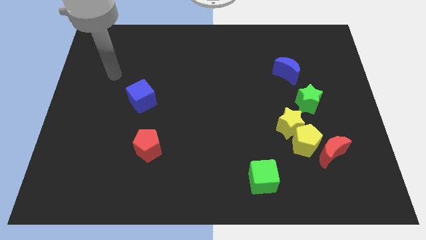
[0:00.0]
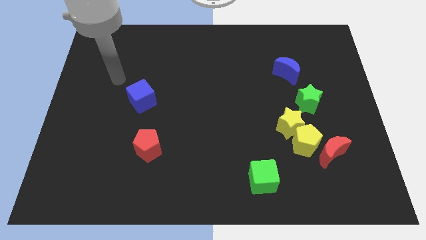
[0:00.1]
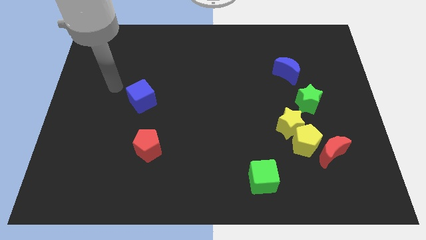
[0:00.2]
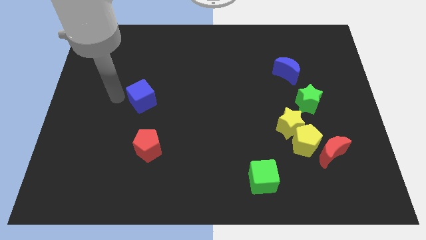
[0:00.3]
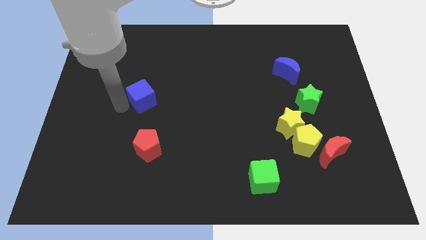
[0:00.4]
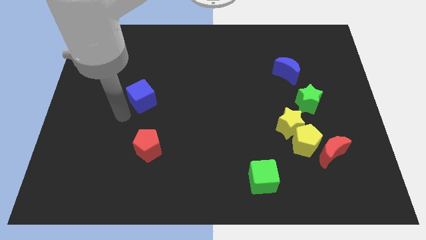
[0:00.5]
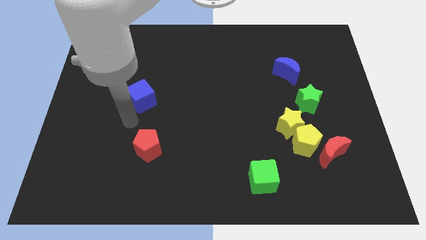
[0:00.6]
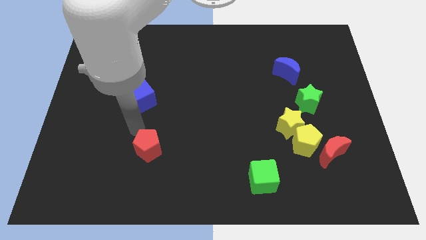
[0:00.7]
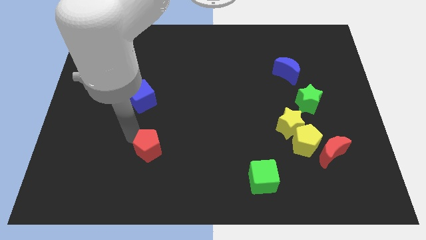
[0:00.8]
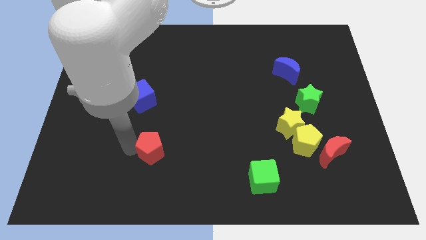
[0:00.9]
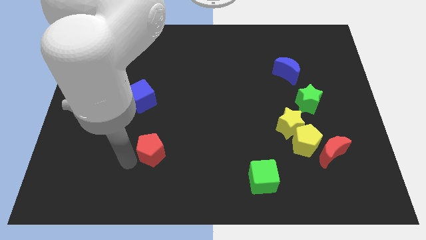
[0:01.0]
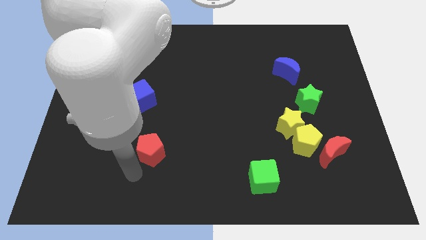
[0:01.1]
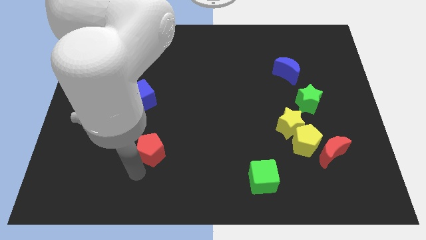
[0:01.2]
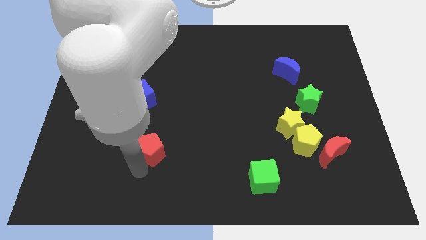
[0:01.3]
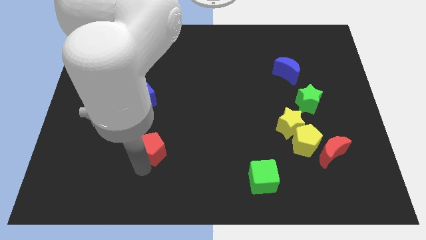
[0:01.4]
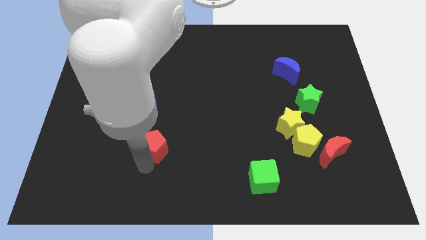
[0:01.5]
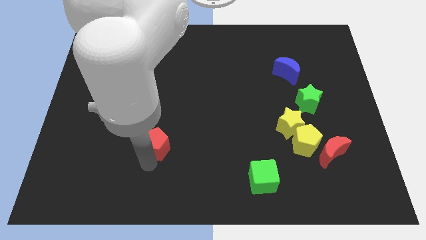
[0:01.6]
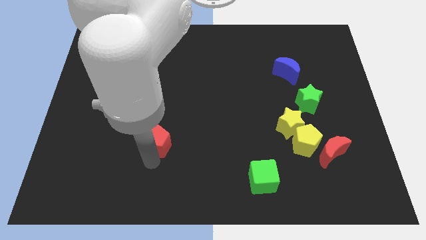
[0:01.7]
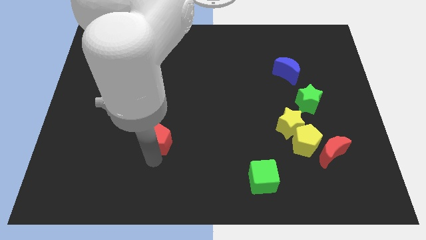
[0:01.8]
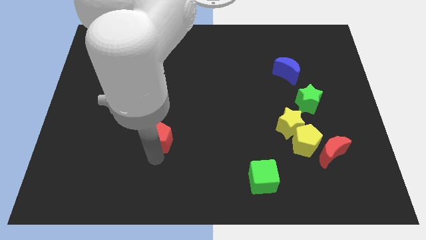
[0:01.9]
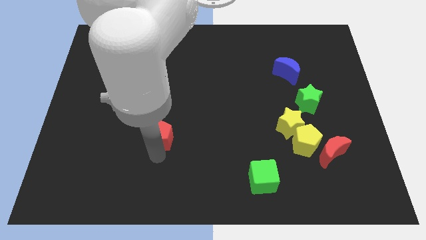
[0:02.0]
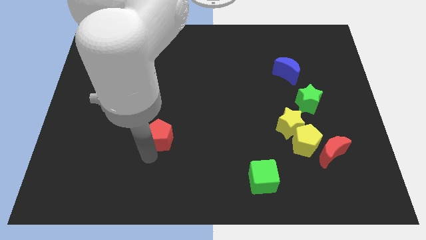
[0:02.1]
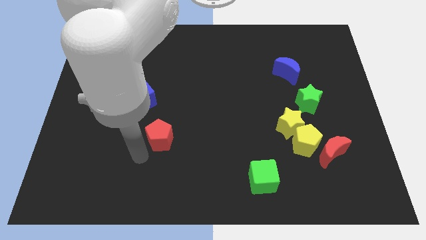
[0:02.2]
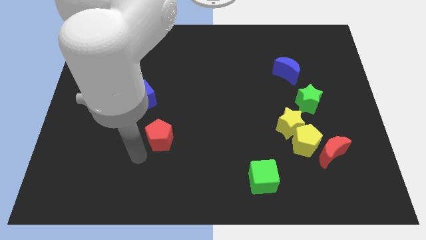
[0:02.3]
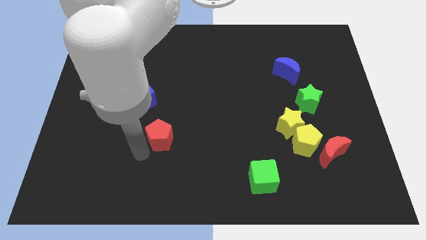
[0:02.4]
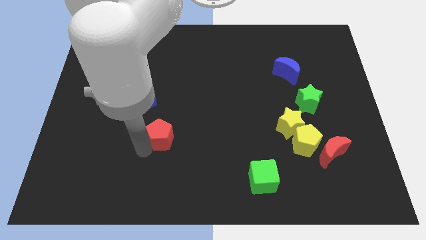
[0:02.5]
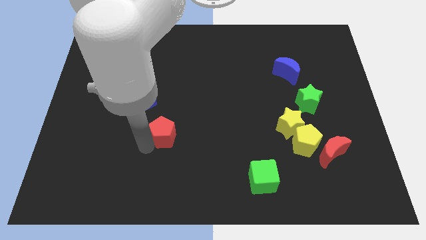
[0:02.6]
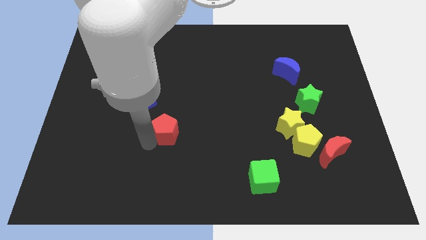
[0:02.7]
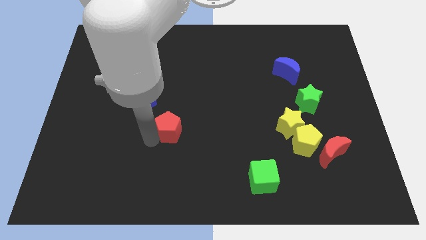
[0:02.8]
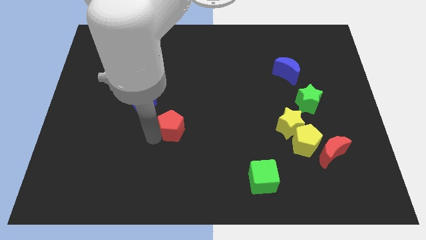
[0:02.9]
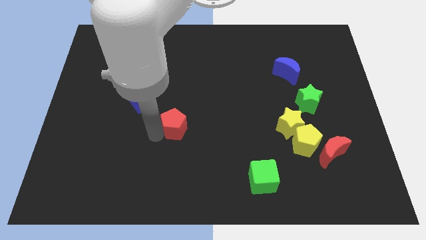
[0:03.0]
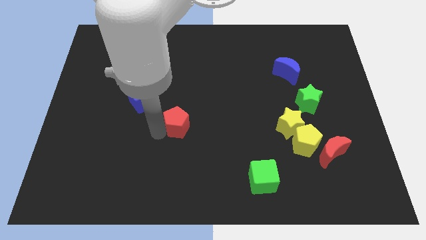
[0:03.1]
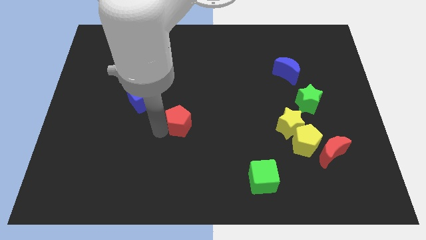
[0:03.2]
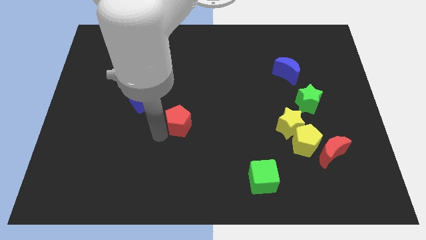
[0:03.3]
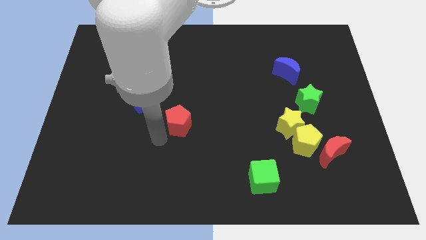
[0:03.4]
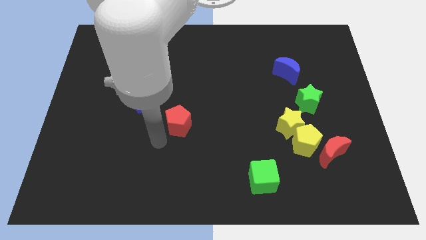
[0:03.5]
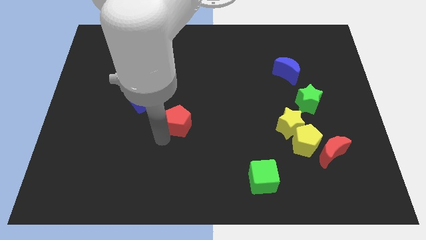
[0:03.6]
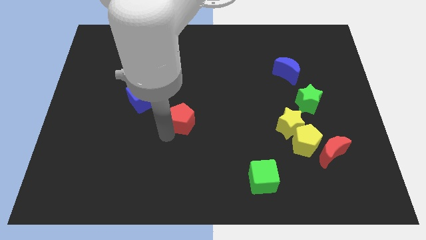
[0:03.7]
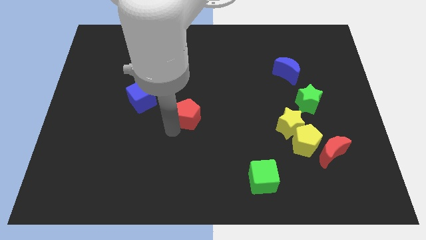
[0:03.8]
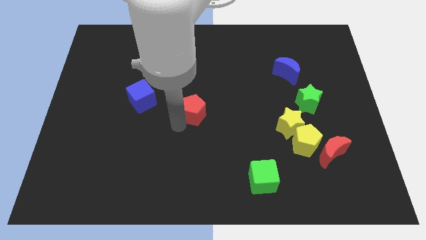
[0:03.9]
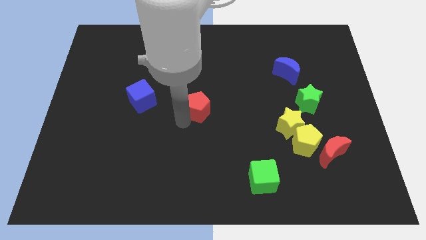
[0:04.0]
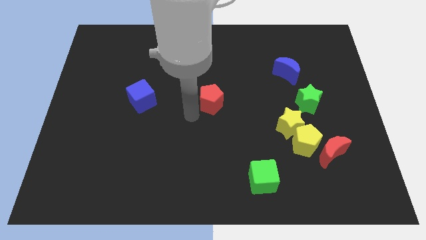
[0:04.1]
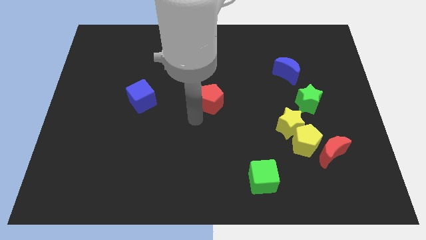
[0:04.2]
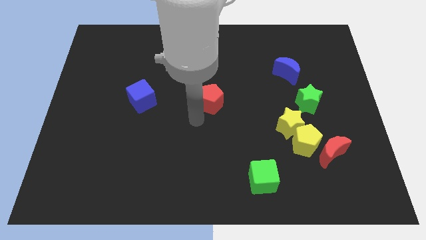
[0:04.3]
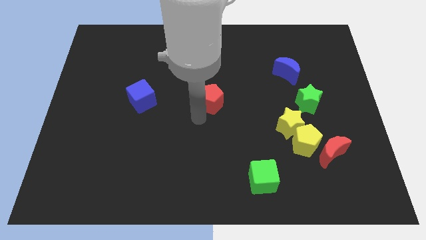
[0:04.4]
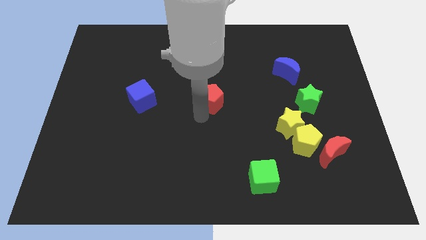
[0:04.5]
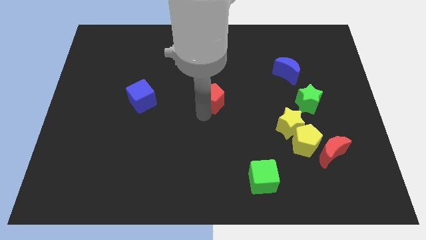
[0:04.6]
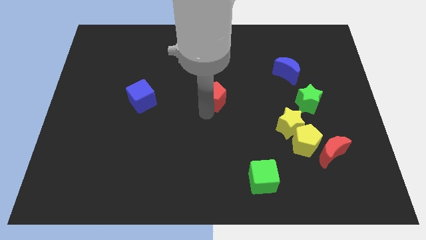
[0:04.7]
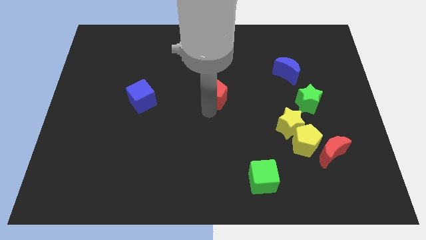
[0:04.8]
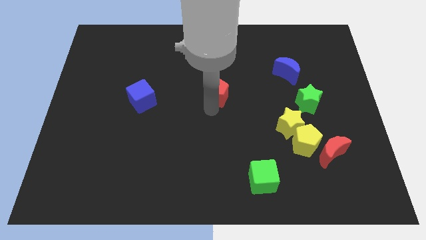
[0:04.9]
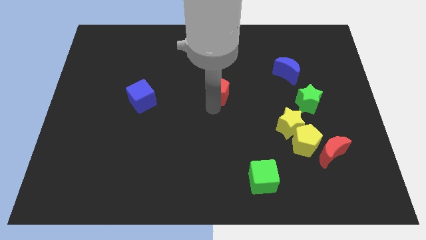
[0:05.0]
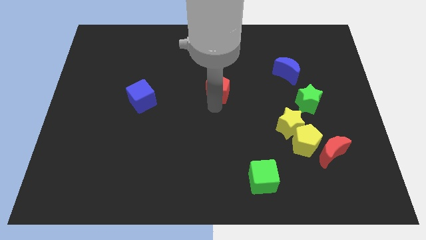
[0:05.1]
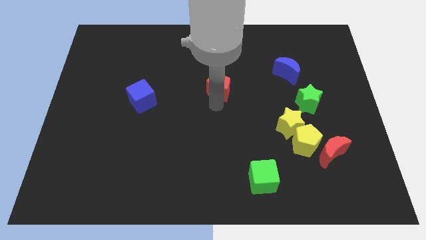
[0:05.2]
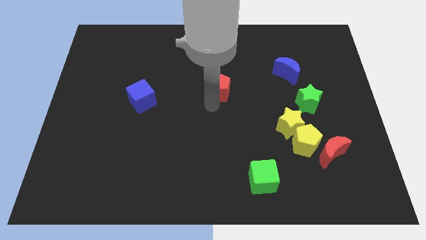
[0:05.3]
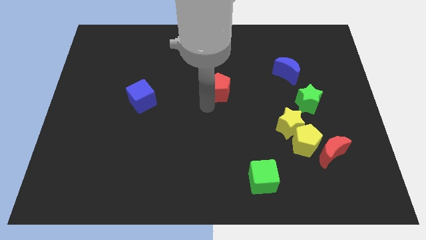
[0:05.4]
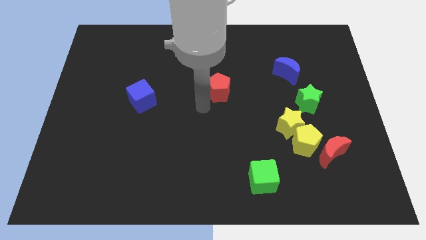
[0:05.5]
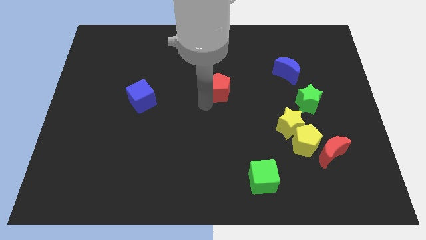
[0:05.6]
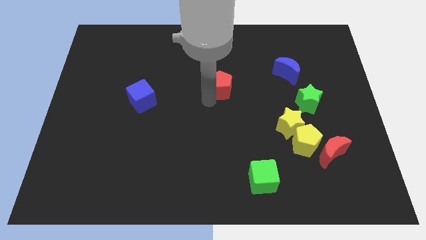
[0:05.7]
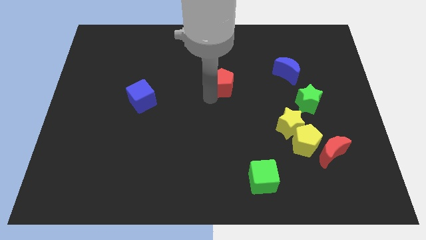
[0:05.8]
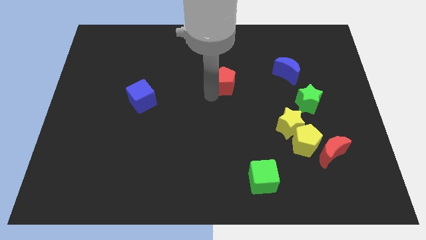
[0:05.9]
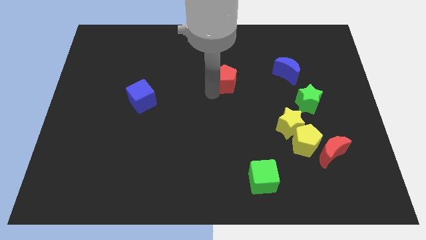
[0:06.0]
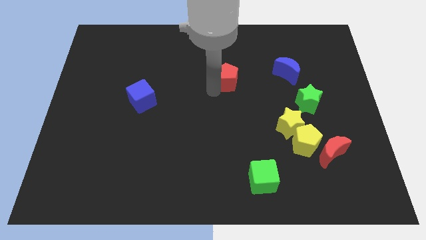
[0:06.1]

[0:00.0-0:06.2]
put the red pentagon just left of the blue moon
